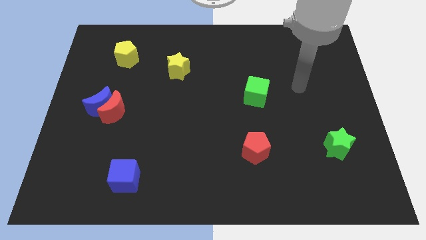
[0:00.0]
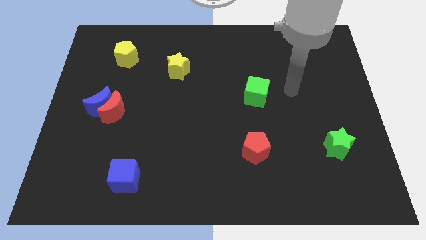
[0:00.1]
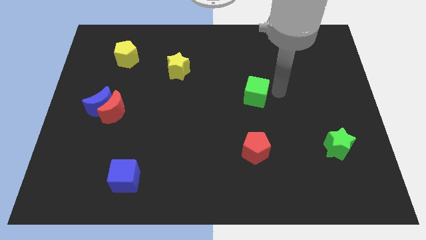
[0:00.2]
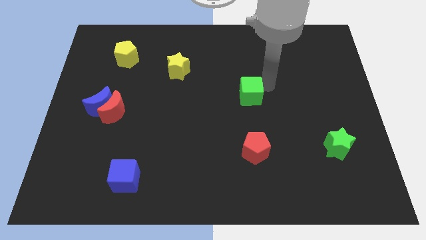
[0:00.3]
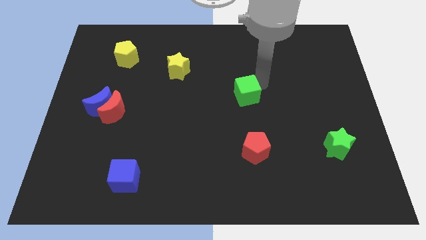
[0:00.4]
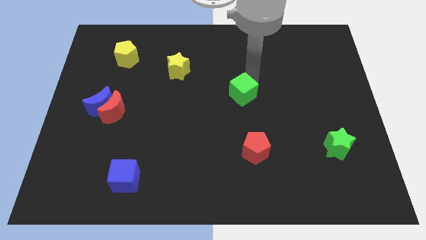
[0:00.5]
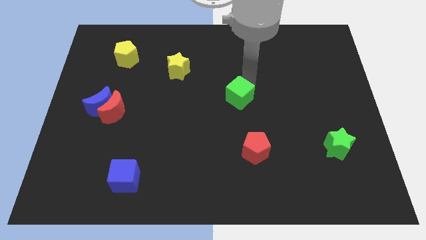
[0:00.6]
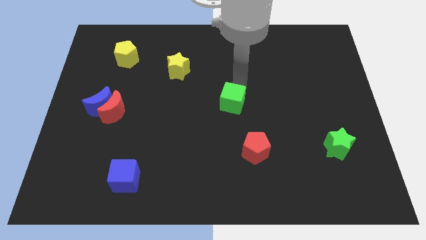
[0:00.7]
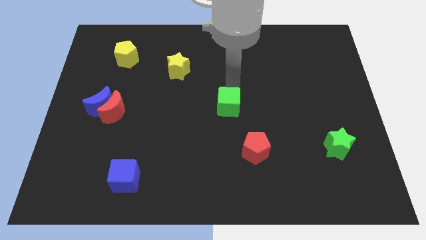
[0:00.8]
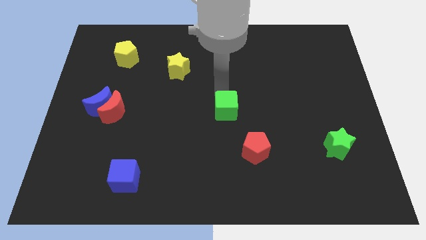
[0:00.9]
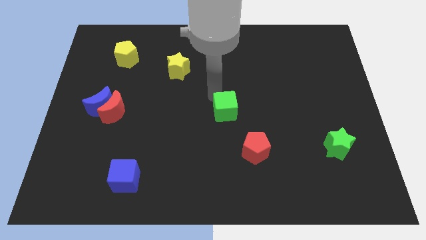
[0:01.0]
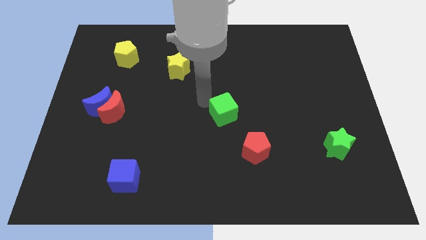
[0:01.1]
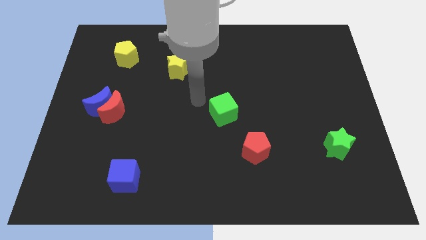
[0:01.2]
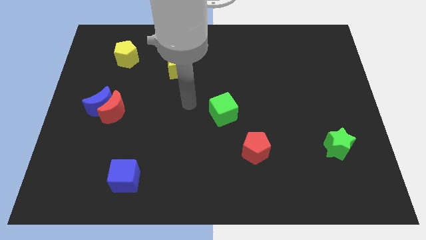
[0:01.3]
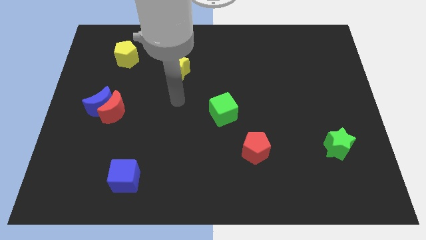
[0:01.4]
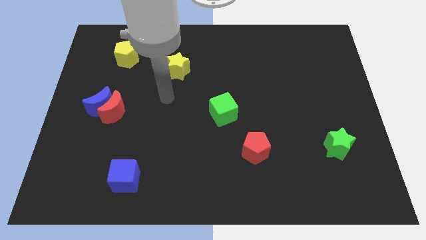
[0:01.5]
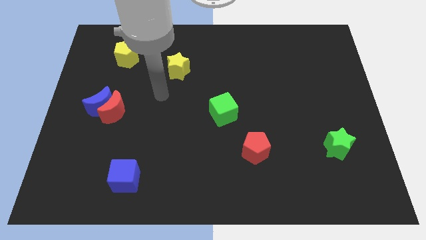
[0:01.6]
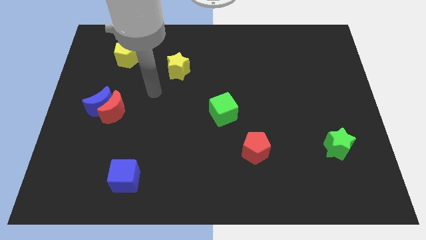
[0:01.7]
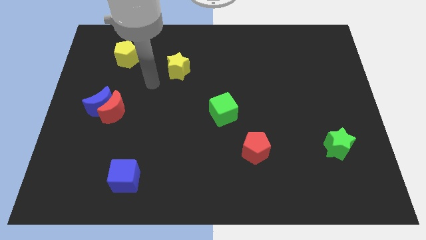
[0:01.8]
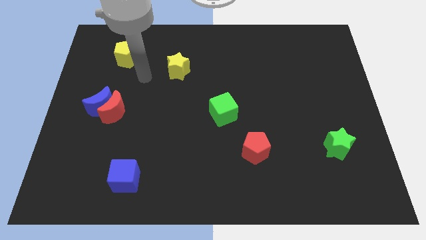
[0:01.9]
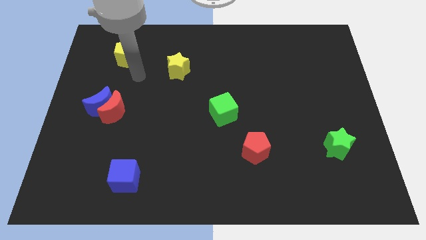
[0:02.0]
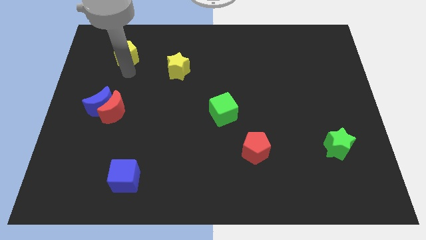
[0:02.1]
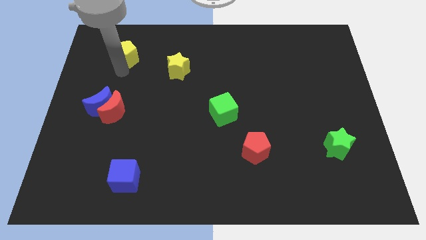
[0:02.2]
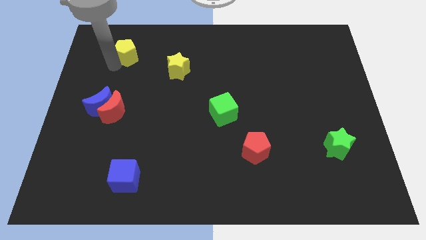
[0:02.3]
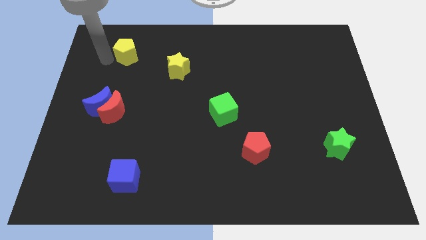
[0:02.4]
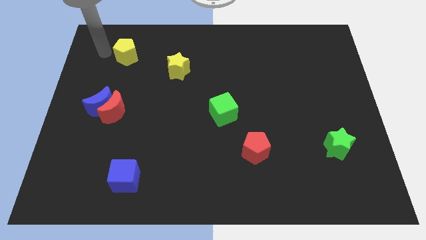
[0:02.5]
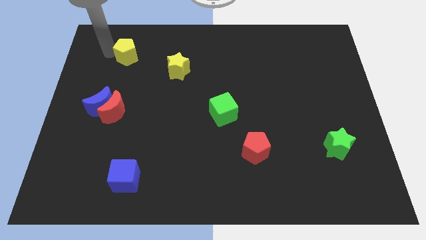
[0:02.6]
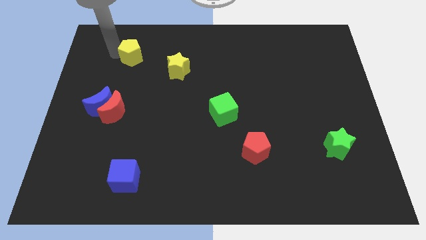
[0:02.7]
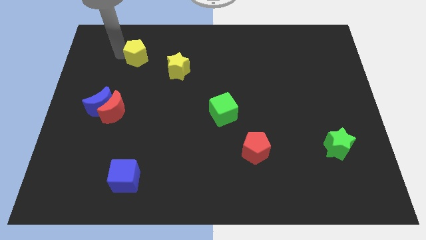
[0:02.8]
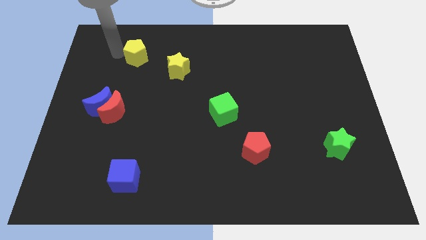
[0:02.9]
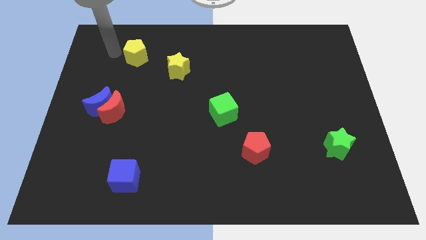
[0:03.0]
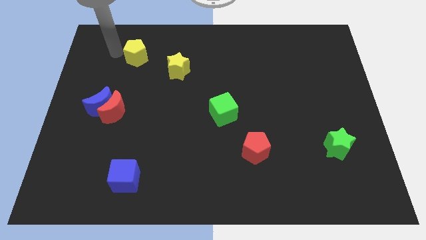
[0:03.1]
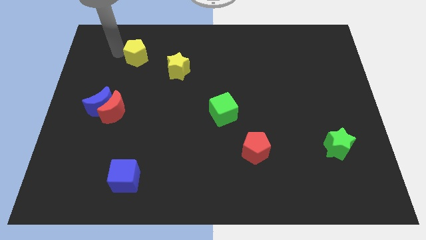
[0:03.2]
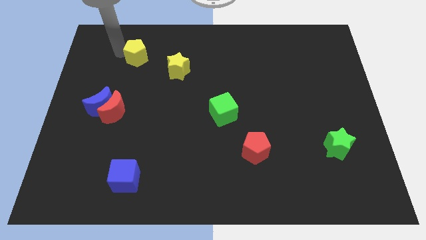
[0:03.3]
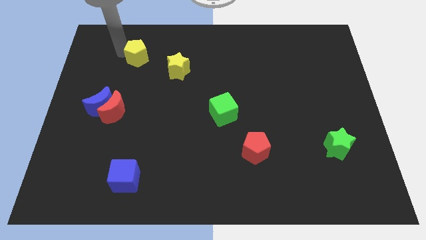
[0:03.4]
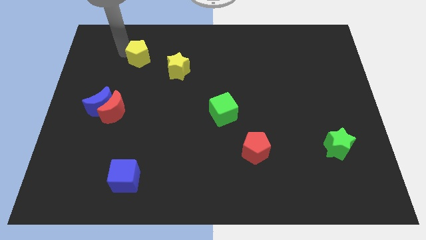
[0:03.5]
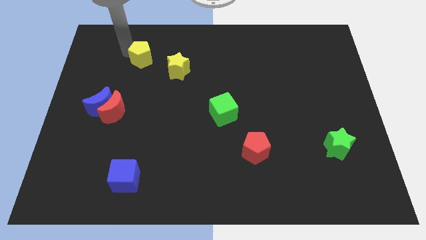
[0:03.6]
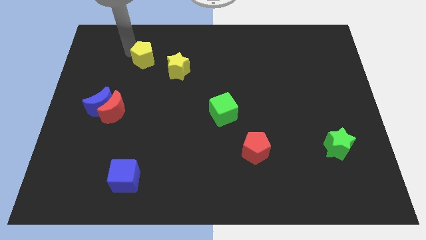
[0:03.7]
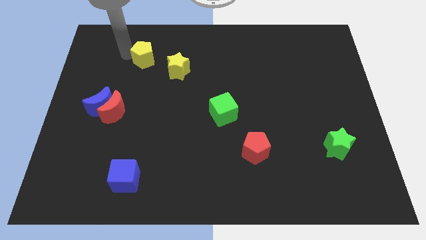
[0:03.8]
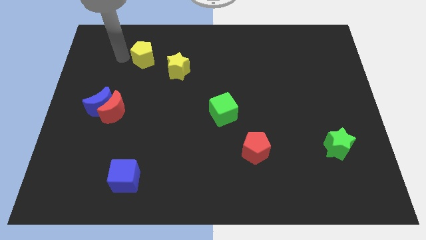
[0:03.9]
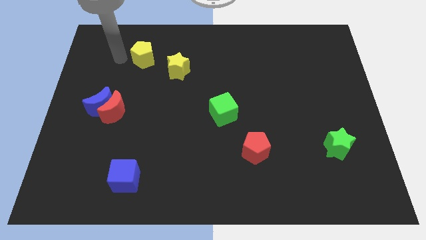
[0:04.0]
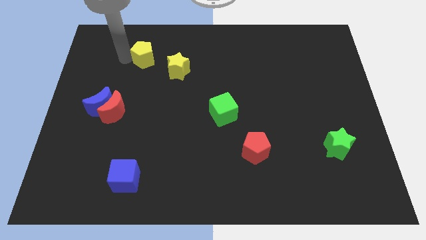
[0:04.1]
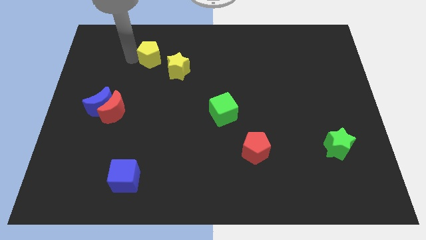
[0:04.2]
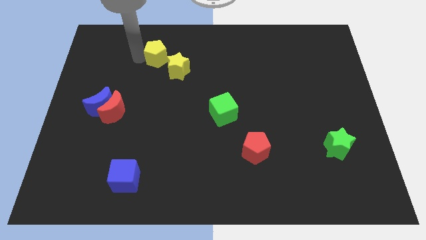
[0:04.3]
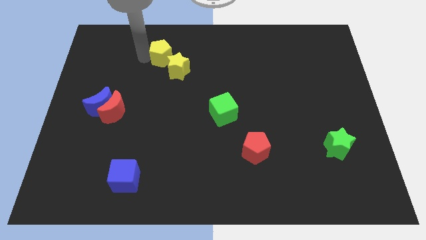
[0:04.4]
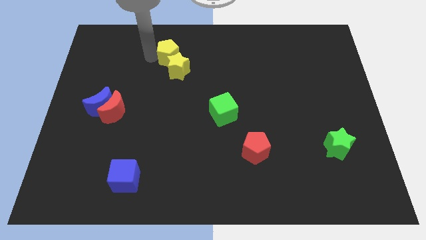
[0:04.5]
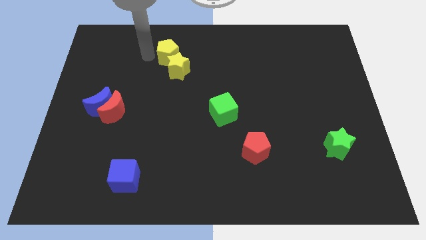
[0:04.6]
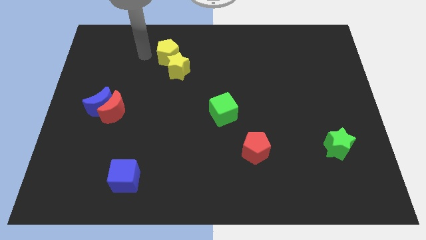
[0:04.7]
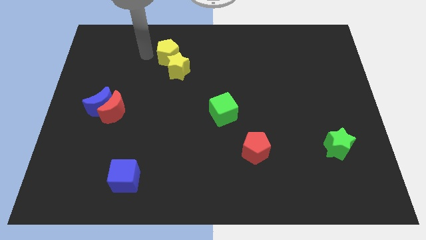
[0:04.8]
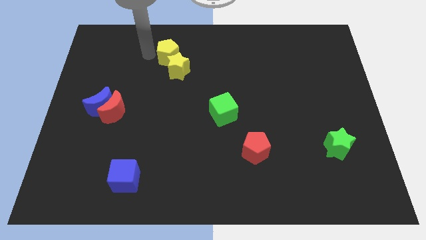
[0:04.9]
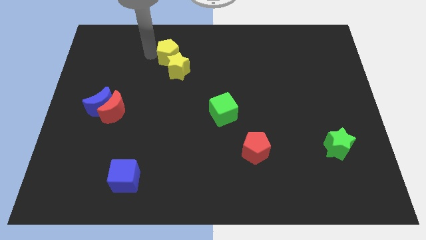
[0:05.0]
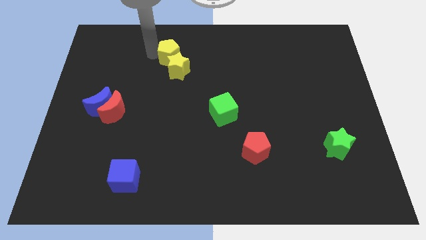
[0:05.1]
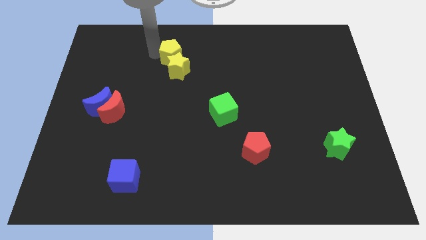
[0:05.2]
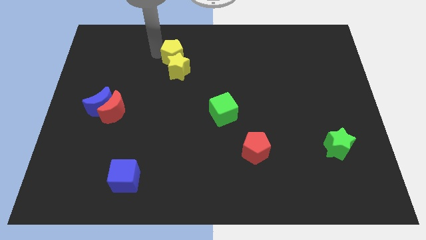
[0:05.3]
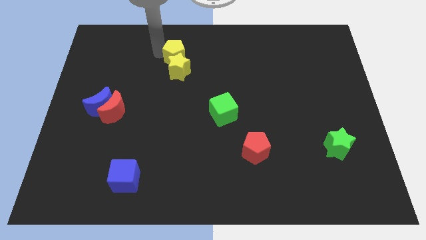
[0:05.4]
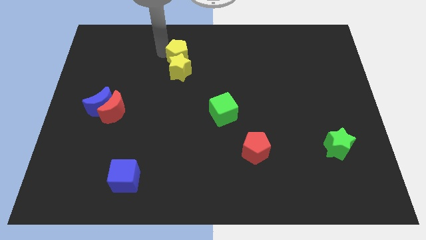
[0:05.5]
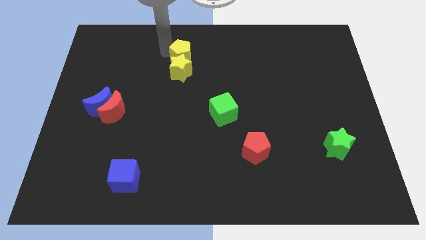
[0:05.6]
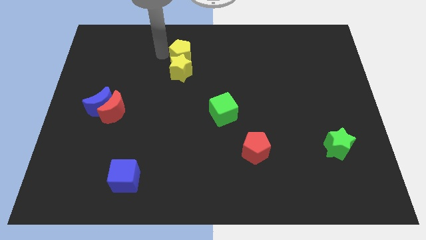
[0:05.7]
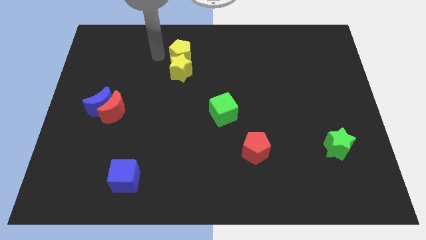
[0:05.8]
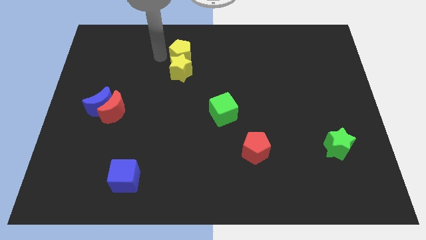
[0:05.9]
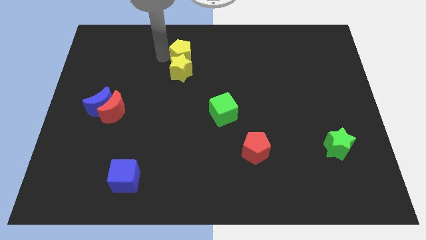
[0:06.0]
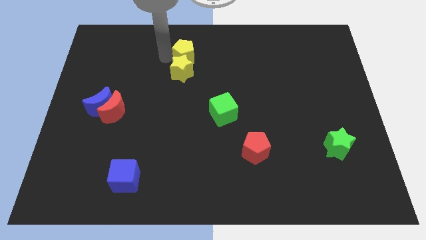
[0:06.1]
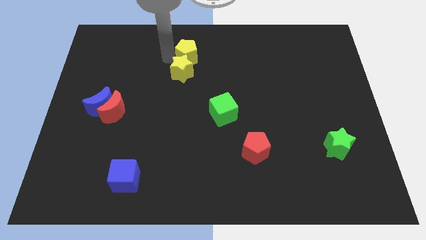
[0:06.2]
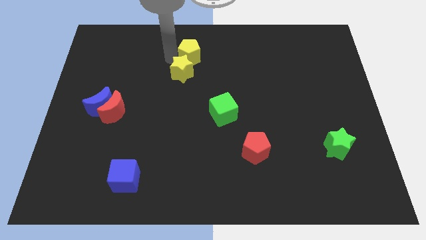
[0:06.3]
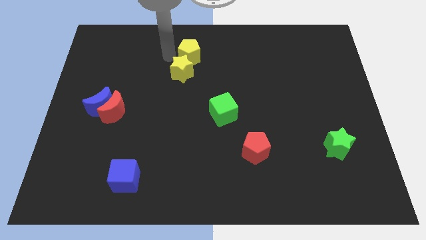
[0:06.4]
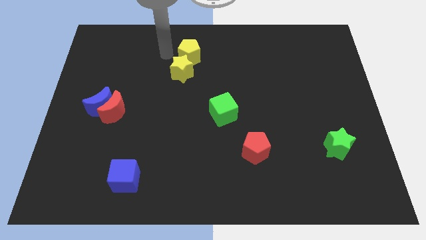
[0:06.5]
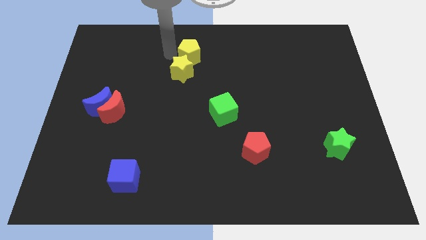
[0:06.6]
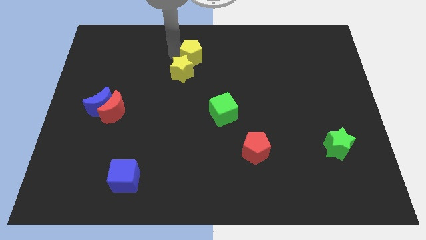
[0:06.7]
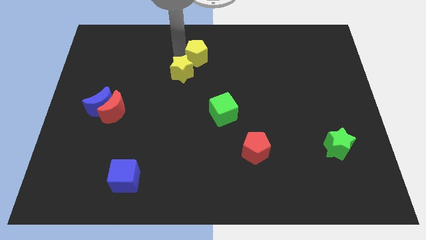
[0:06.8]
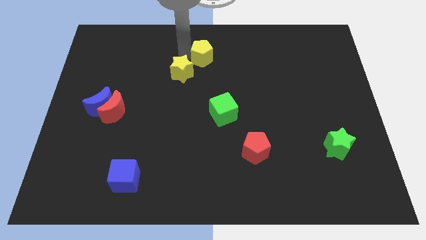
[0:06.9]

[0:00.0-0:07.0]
move the yellow pentagon right

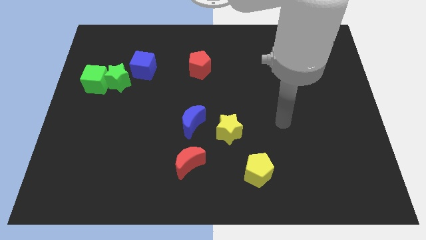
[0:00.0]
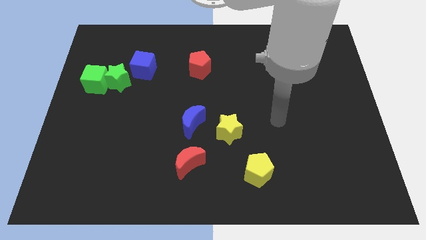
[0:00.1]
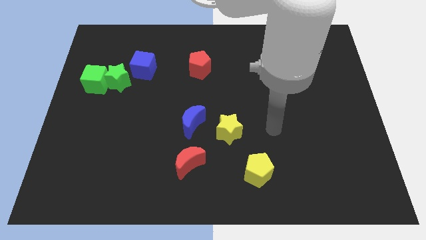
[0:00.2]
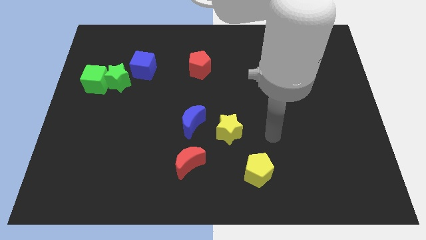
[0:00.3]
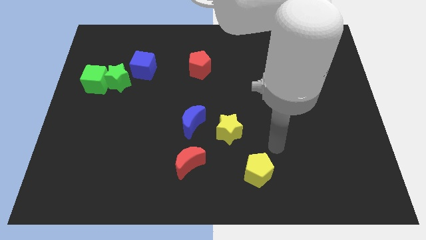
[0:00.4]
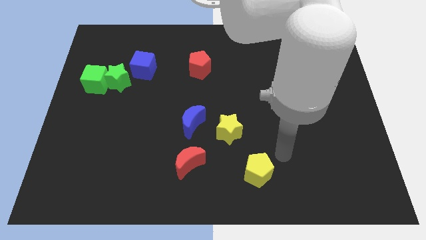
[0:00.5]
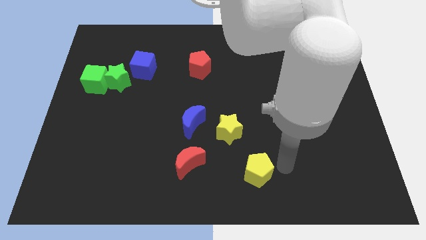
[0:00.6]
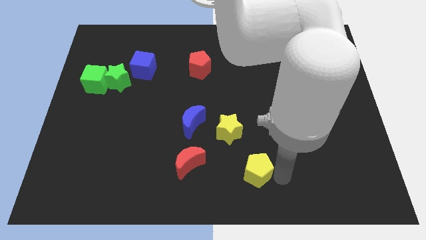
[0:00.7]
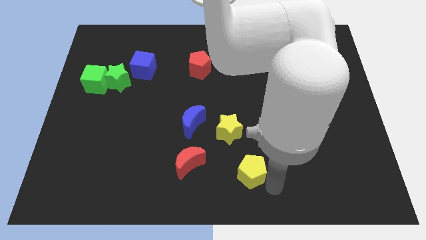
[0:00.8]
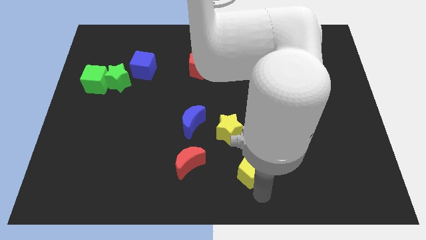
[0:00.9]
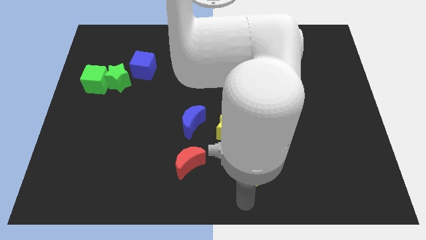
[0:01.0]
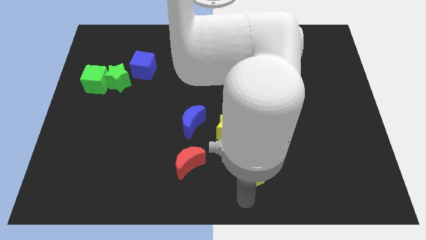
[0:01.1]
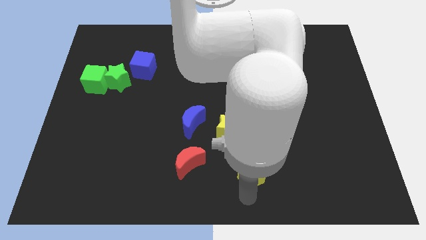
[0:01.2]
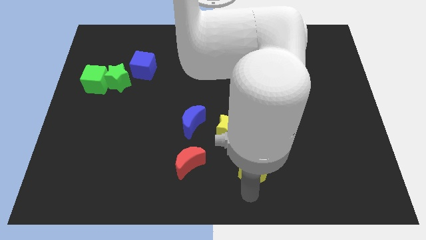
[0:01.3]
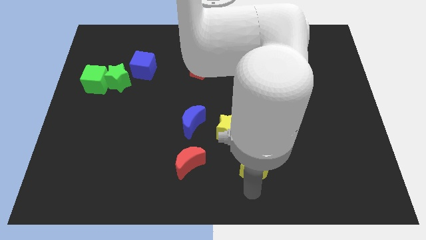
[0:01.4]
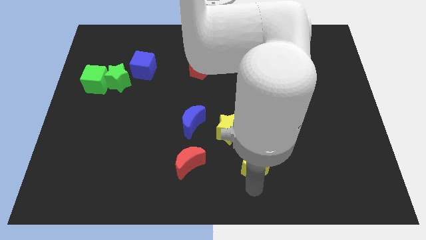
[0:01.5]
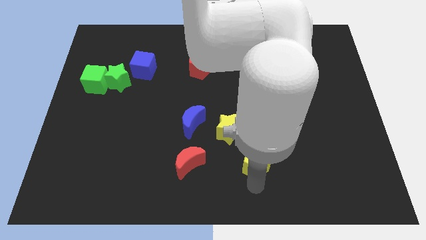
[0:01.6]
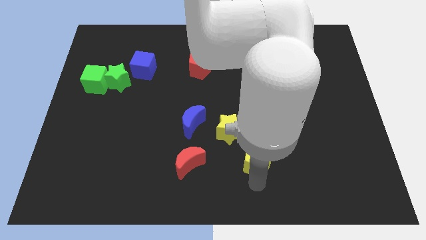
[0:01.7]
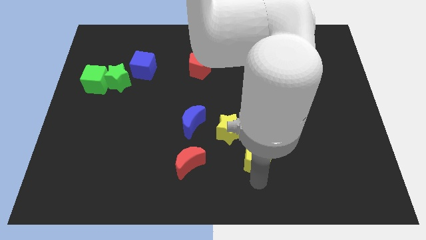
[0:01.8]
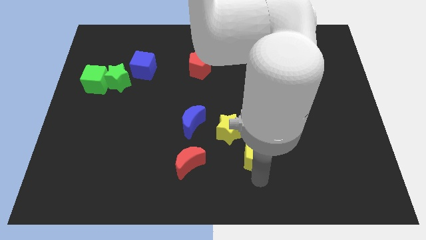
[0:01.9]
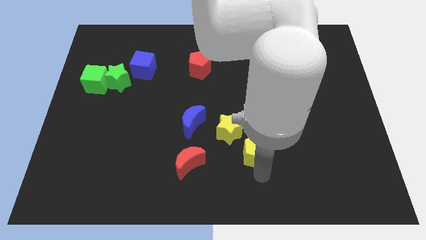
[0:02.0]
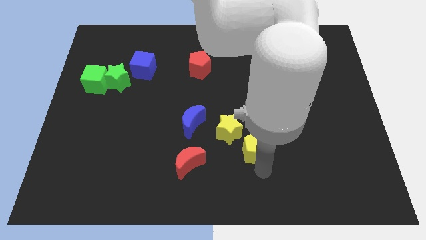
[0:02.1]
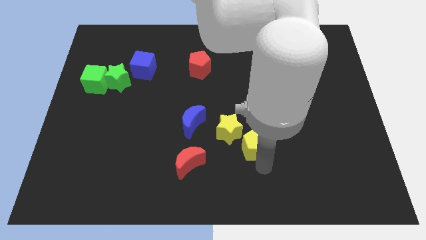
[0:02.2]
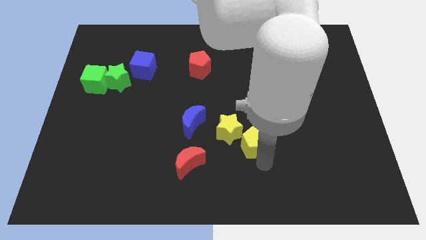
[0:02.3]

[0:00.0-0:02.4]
slide the yellow pentagon a bit up
